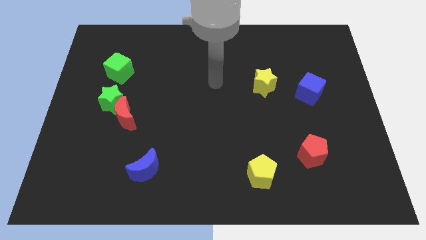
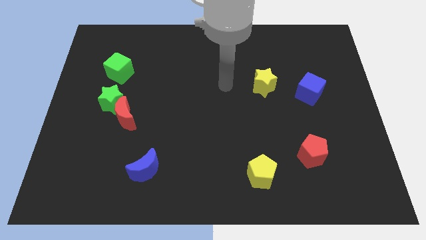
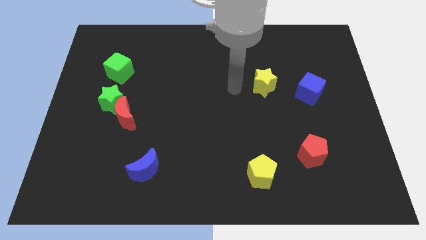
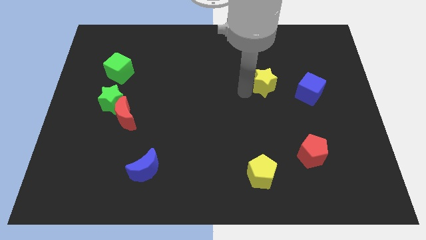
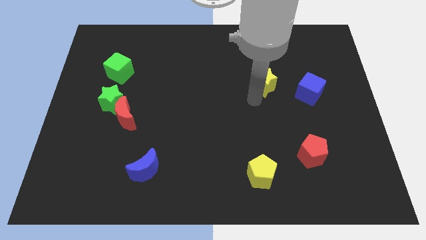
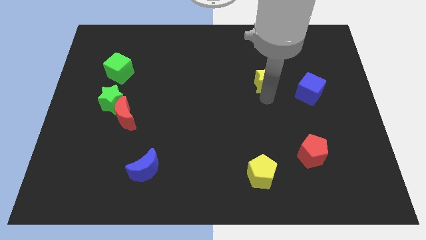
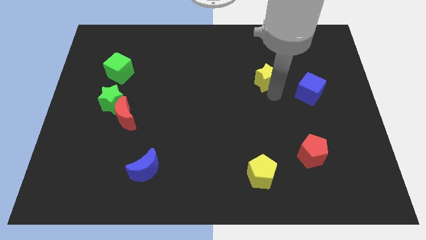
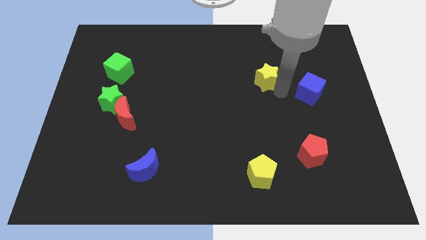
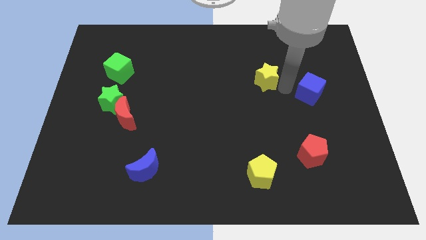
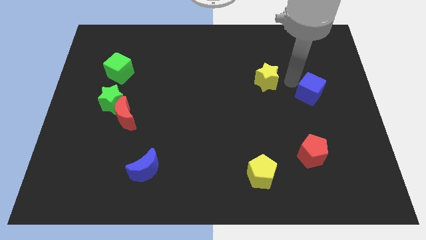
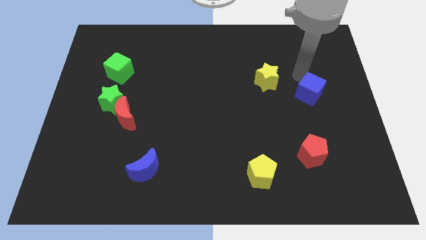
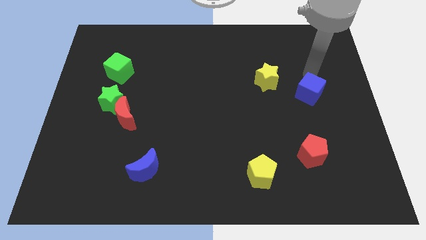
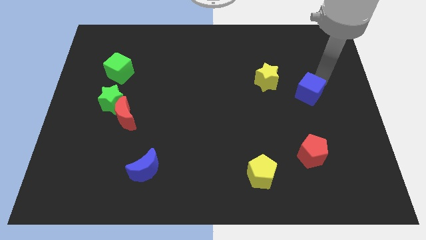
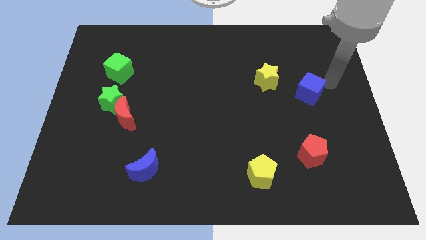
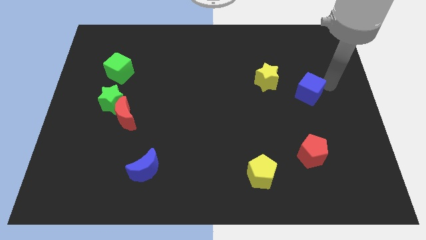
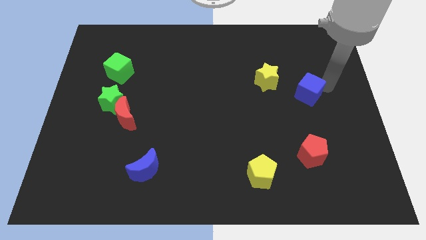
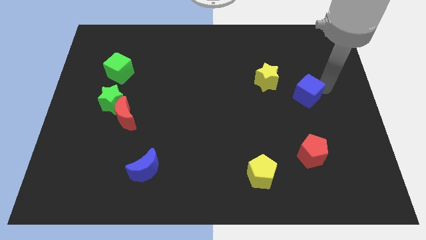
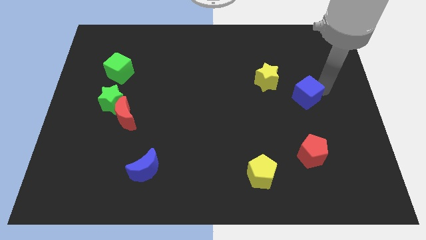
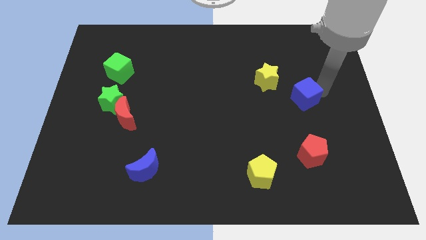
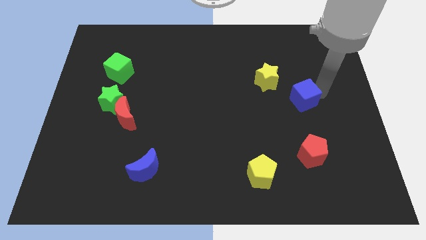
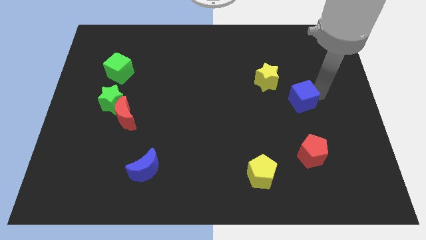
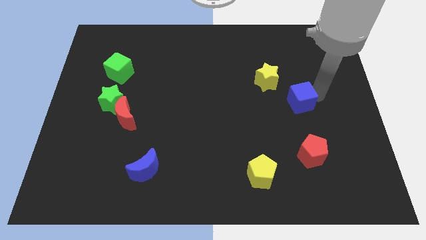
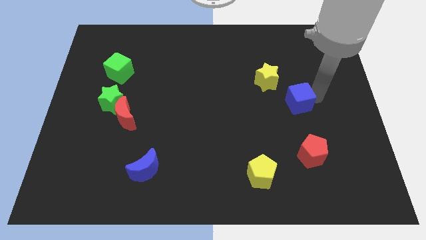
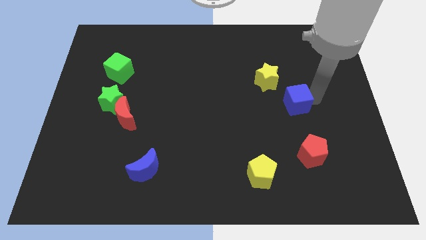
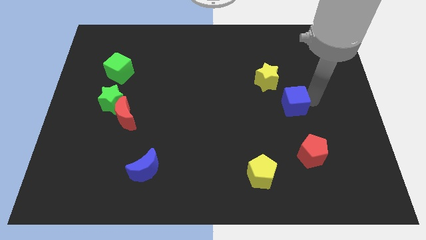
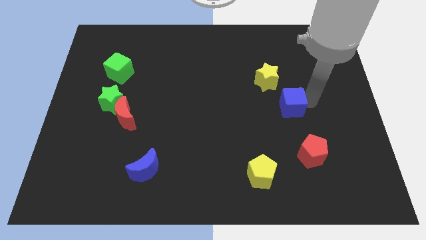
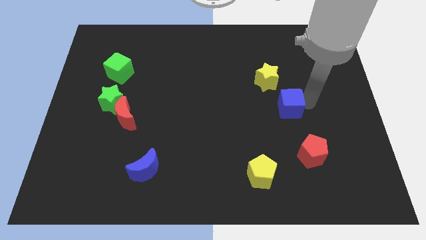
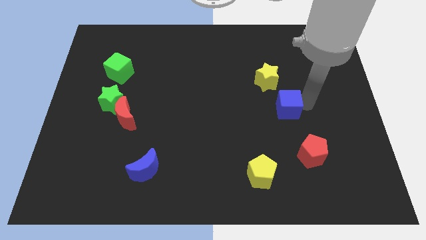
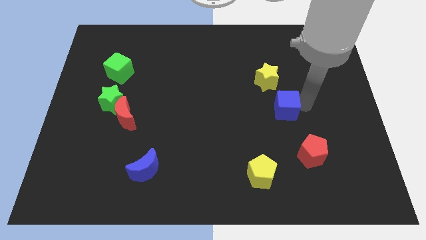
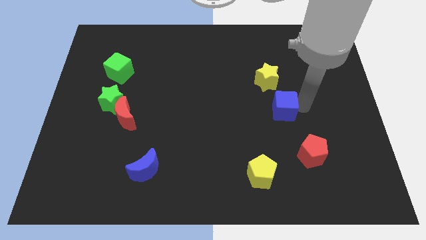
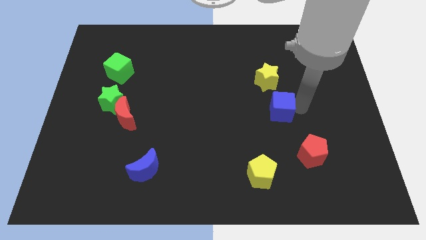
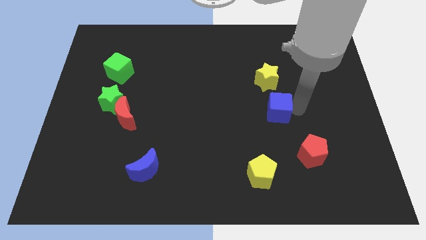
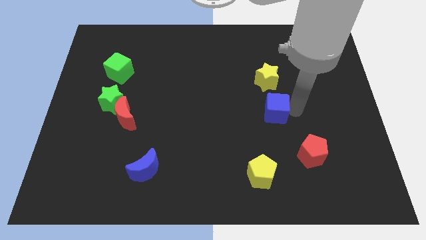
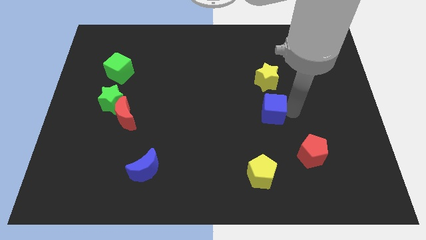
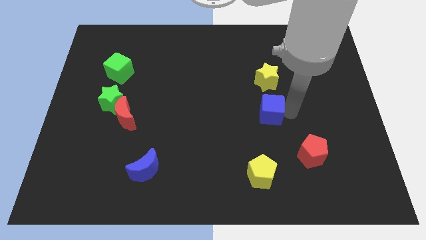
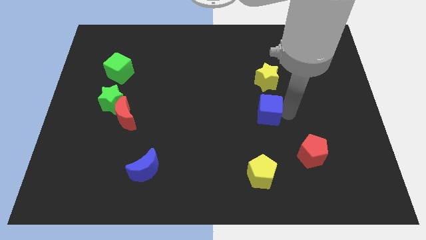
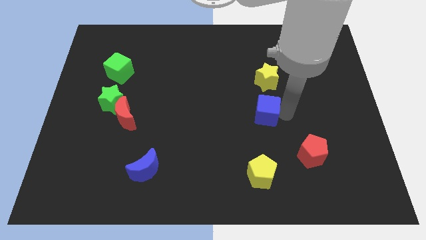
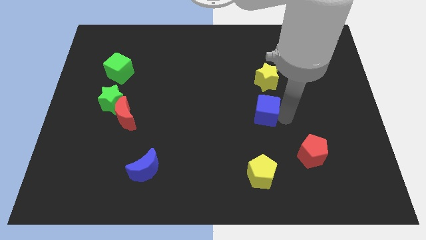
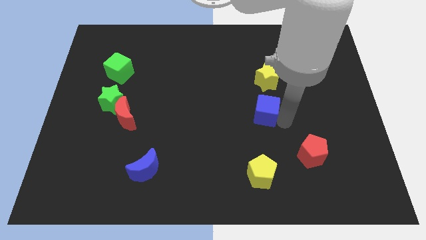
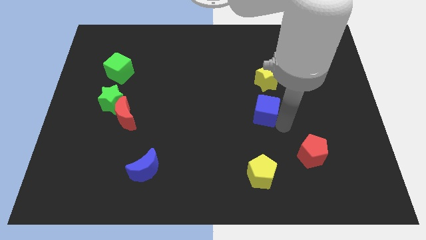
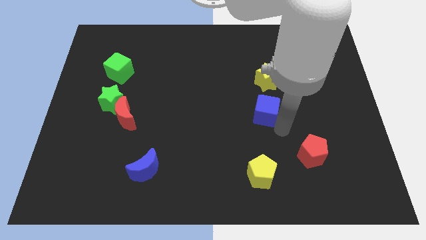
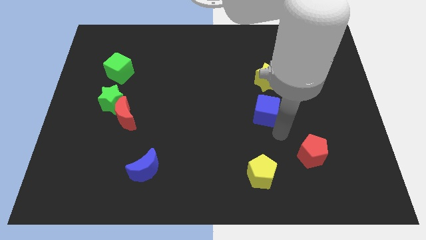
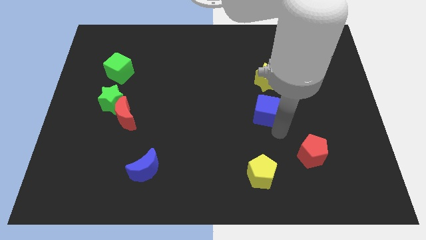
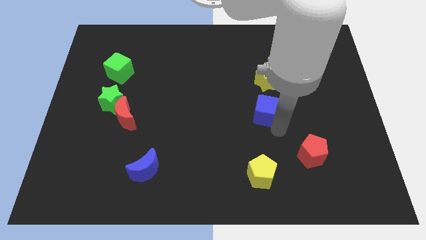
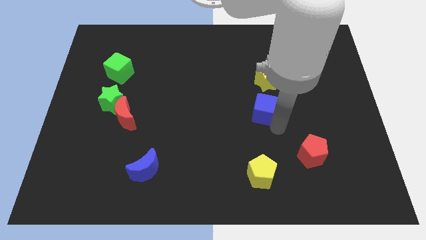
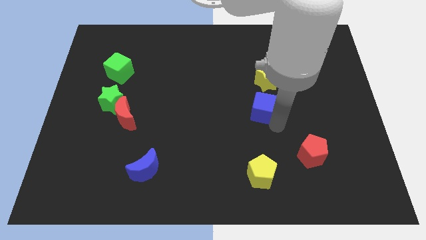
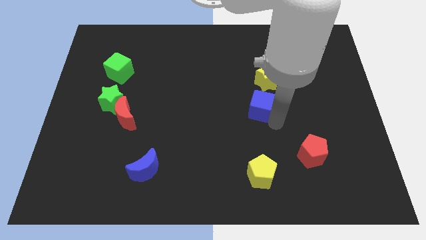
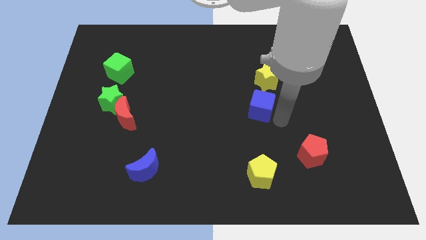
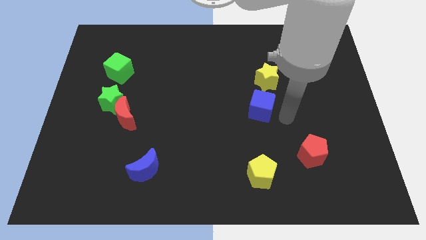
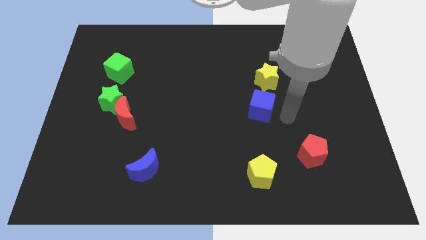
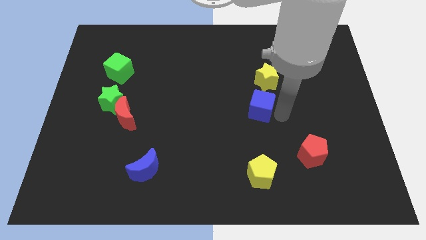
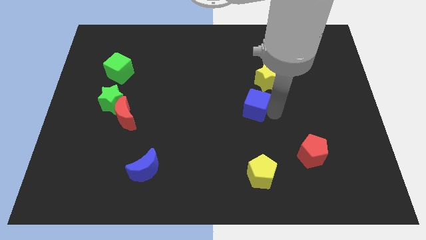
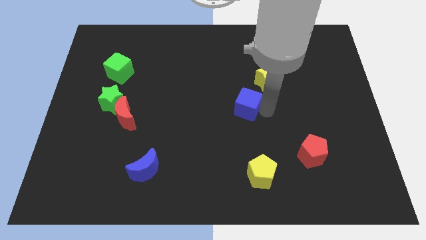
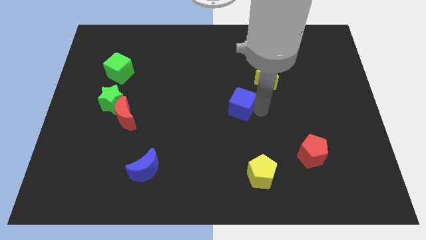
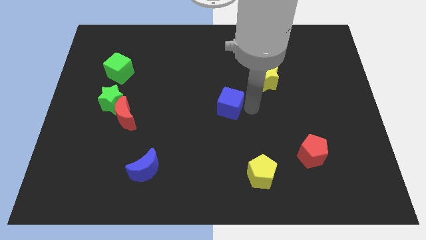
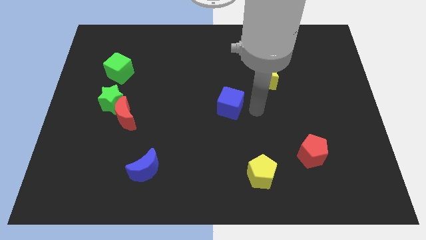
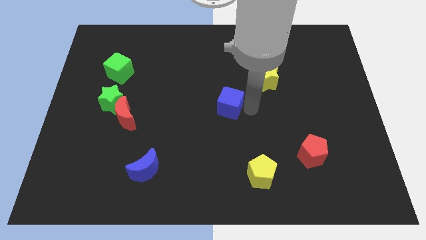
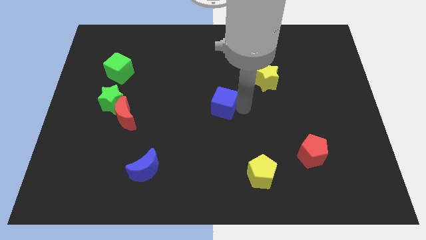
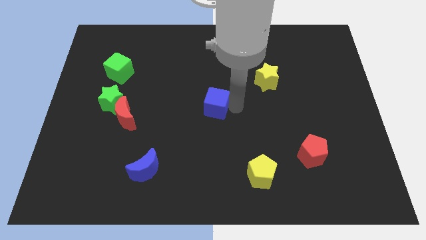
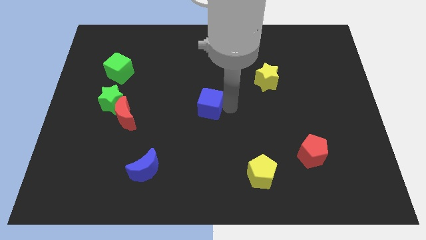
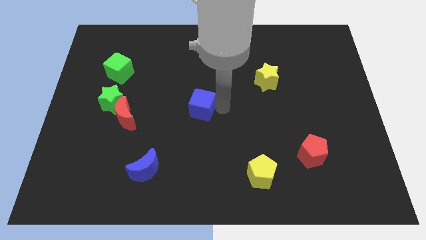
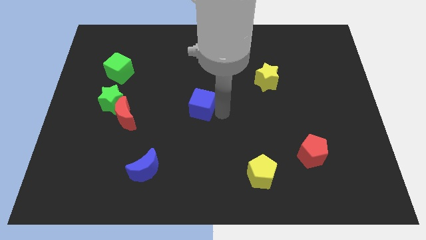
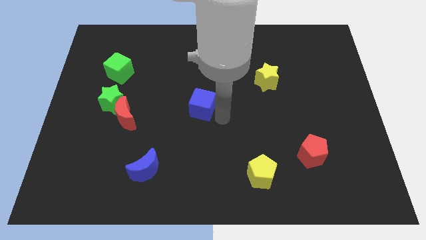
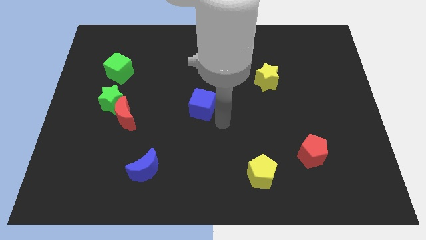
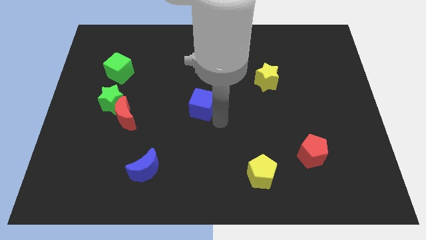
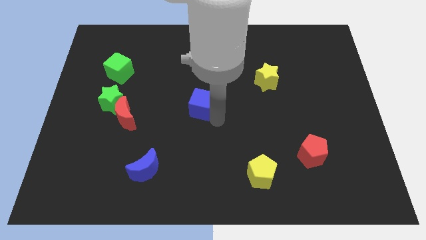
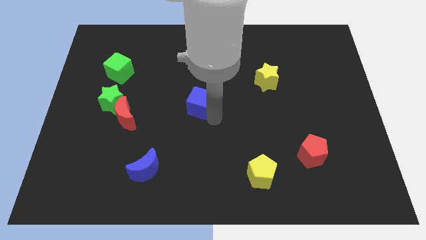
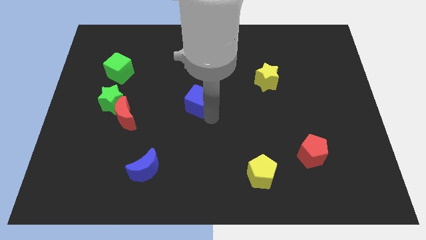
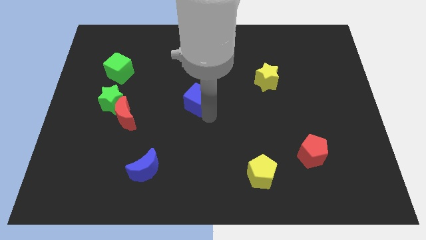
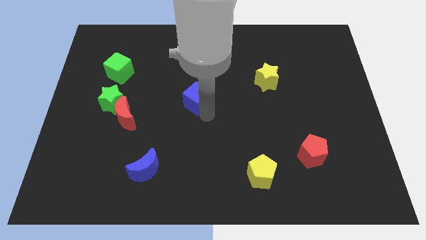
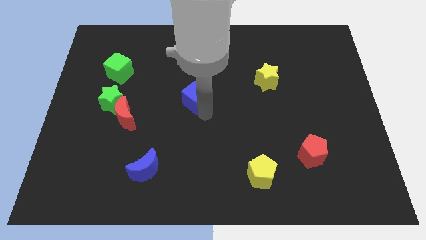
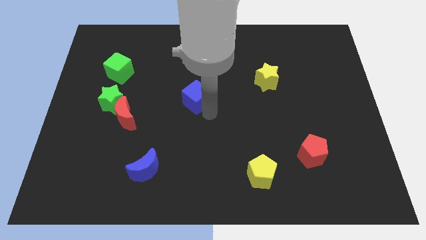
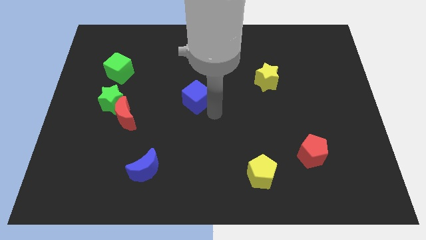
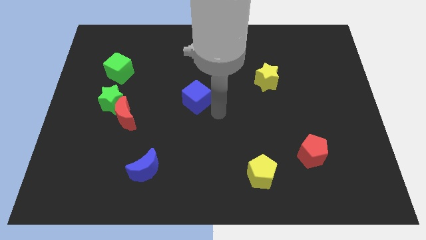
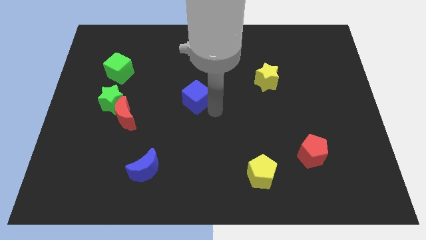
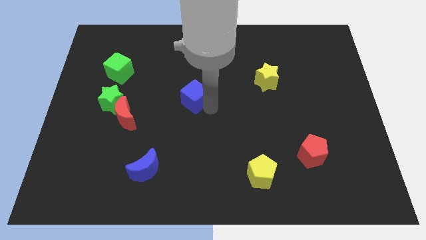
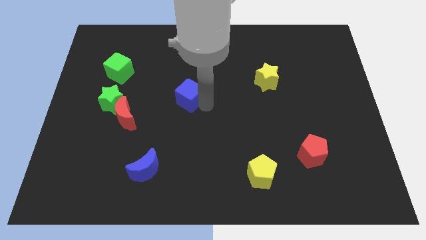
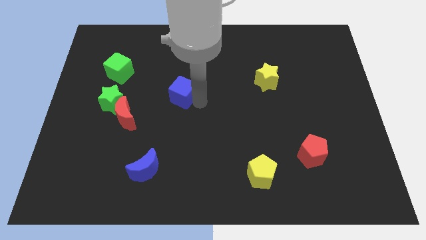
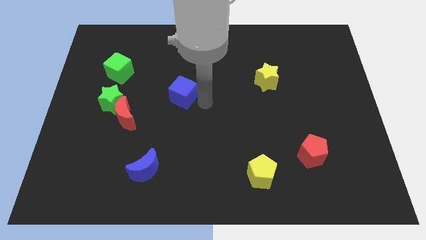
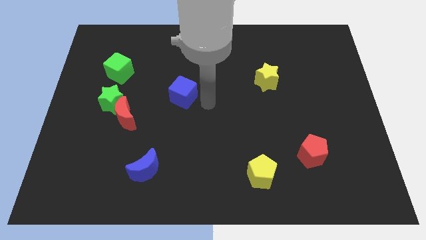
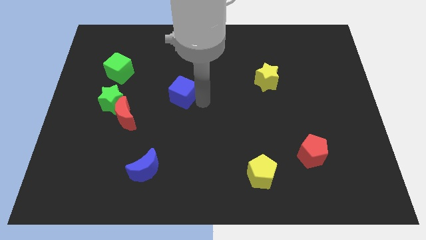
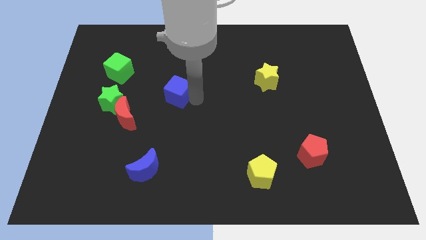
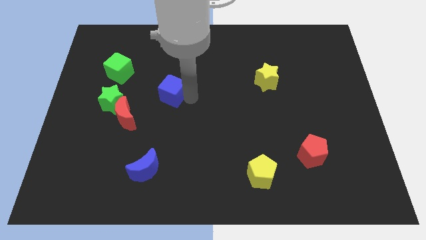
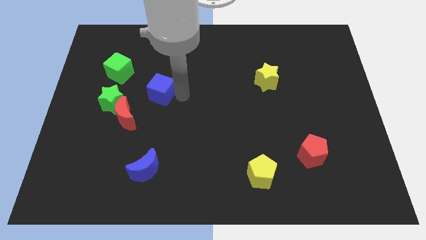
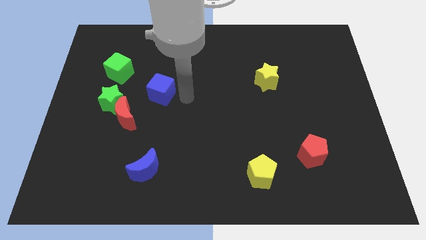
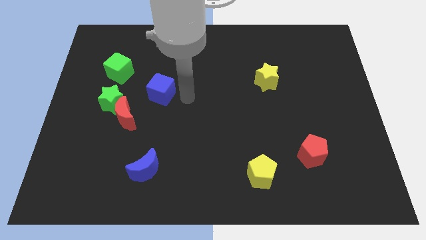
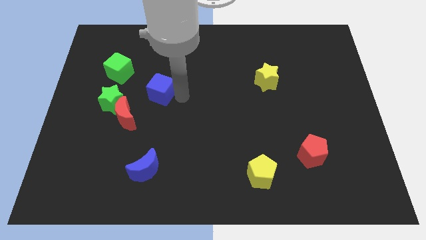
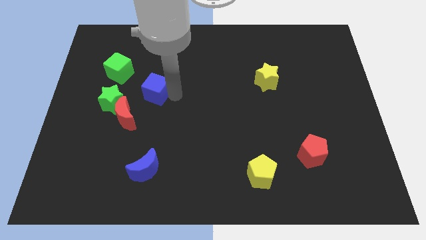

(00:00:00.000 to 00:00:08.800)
move the blue cube to the top right of the green star
